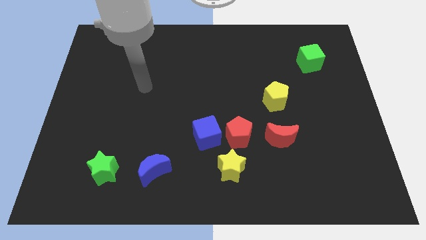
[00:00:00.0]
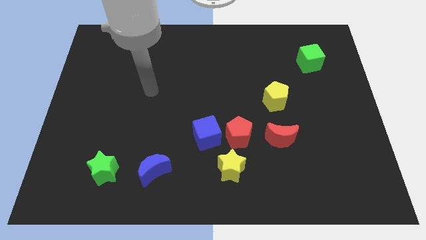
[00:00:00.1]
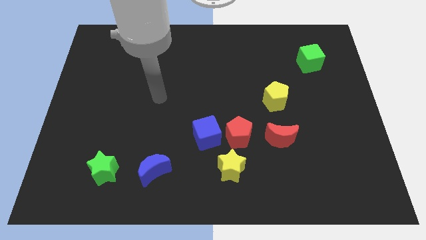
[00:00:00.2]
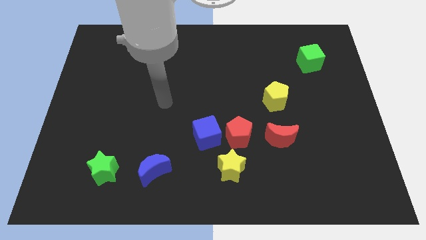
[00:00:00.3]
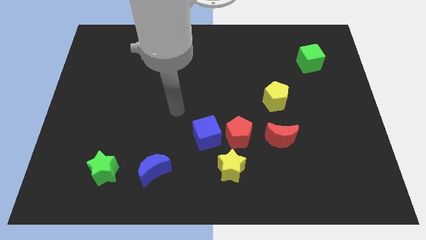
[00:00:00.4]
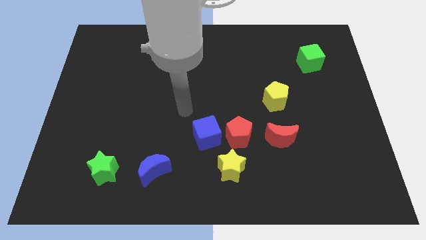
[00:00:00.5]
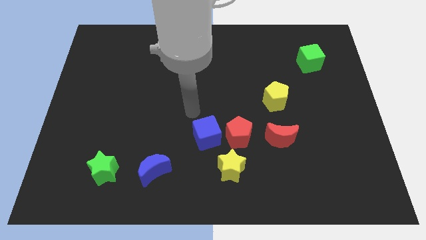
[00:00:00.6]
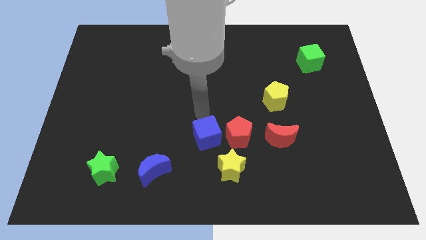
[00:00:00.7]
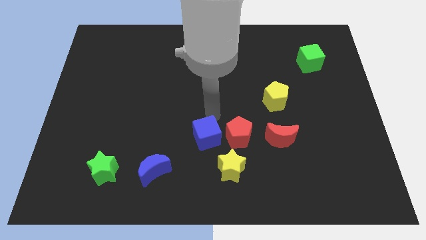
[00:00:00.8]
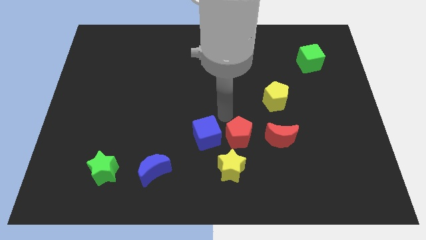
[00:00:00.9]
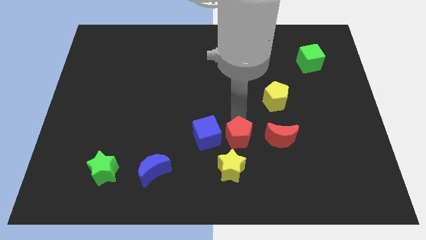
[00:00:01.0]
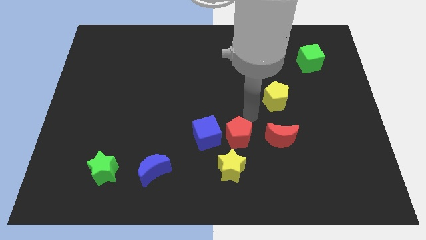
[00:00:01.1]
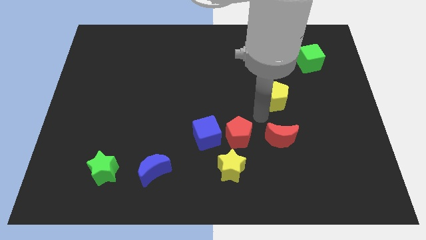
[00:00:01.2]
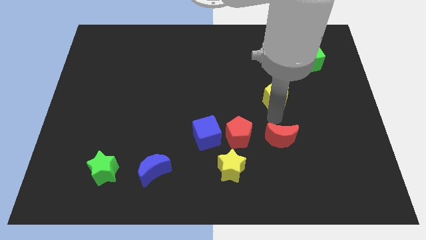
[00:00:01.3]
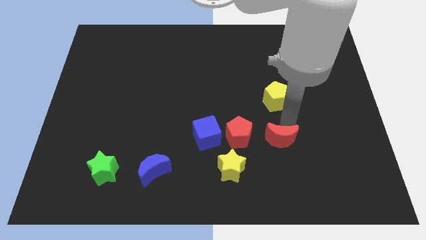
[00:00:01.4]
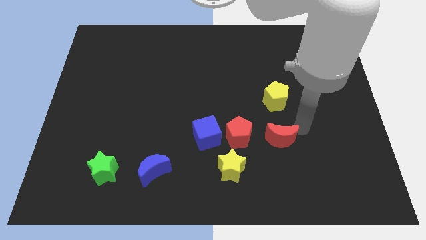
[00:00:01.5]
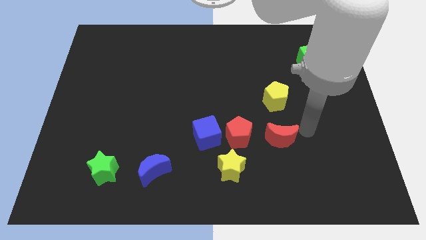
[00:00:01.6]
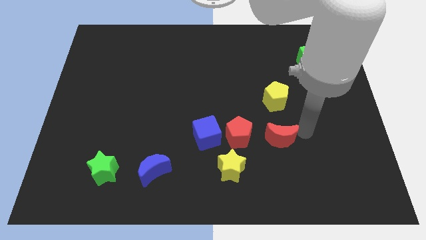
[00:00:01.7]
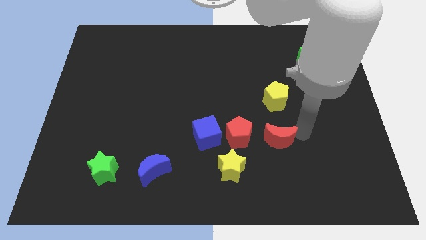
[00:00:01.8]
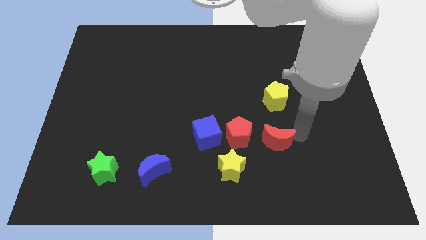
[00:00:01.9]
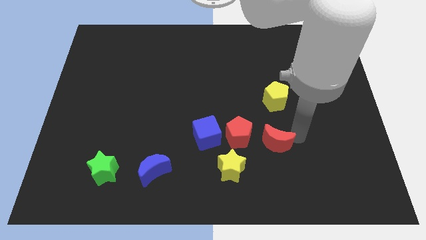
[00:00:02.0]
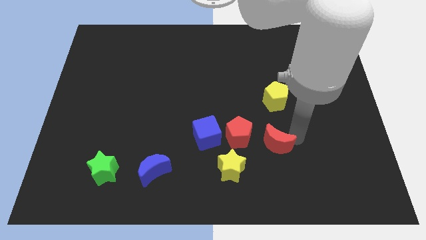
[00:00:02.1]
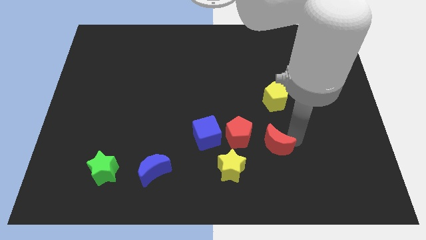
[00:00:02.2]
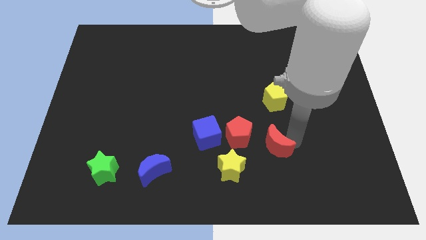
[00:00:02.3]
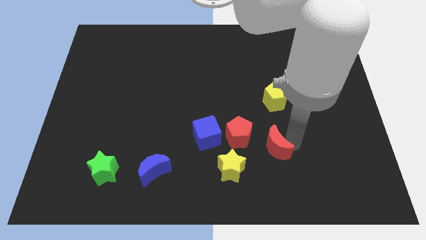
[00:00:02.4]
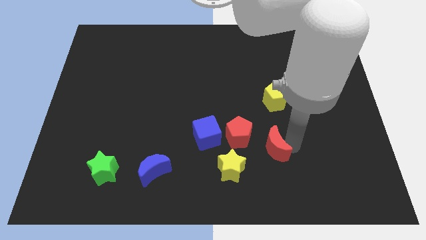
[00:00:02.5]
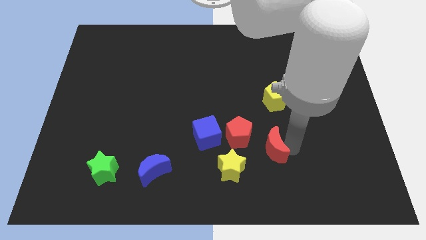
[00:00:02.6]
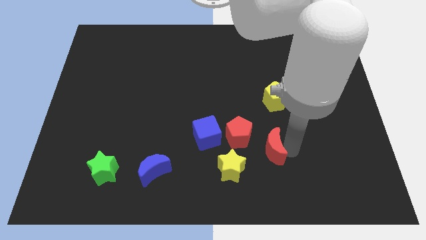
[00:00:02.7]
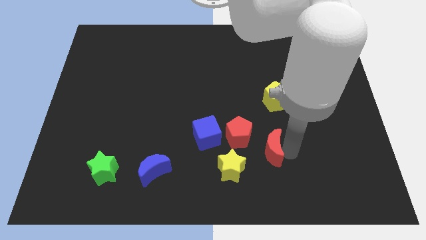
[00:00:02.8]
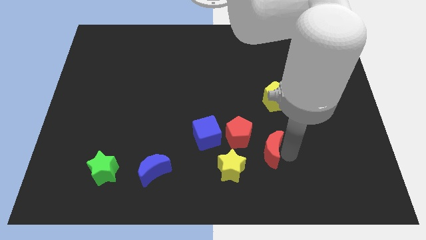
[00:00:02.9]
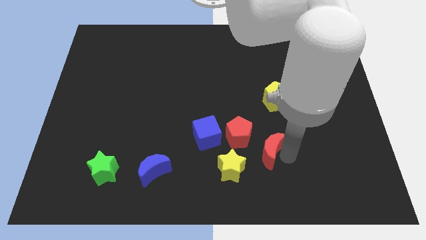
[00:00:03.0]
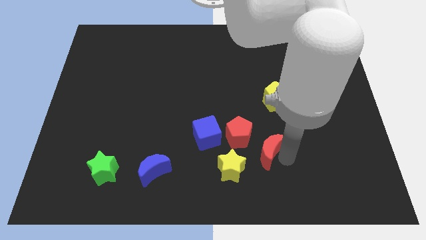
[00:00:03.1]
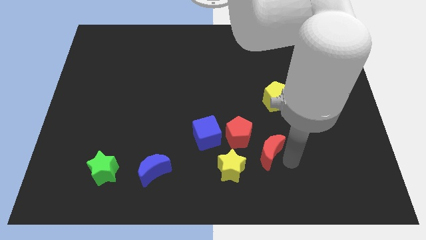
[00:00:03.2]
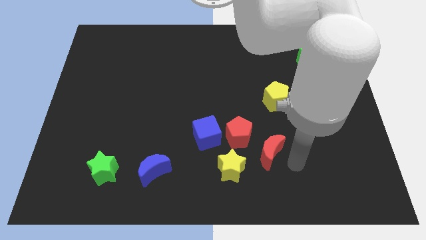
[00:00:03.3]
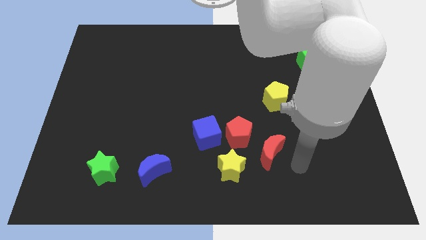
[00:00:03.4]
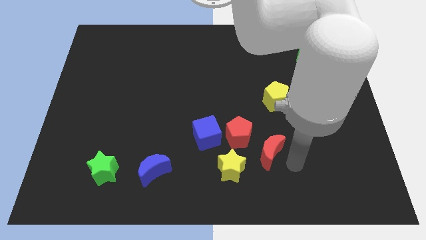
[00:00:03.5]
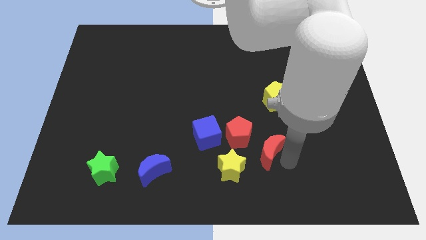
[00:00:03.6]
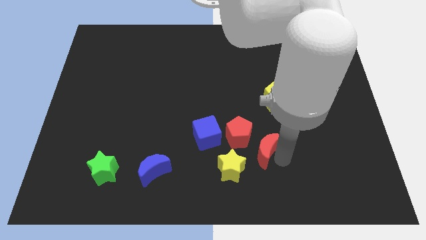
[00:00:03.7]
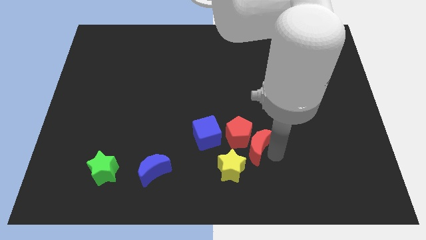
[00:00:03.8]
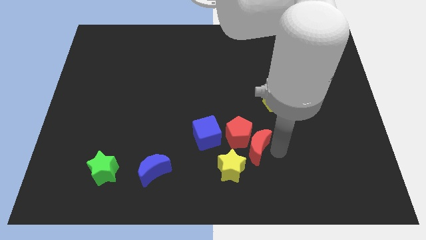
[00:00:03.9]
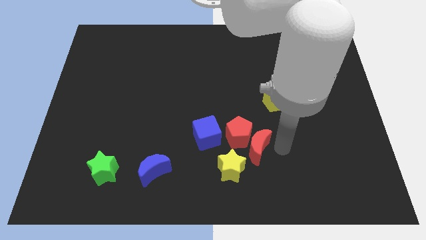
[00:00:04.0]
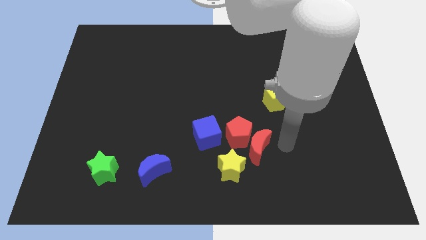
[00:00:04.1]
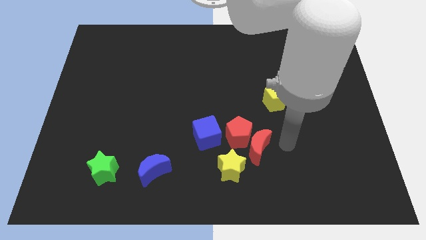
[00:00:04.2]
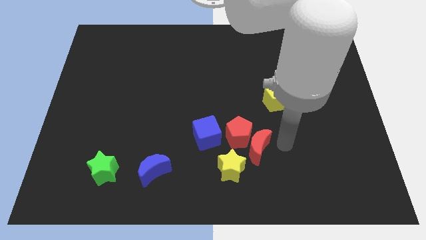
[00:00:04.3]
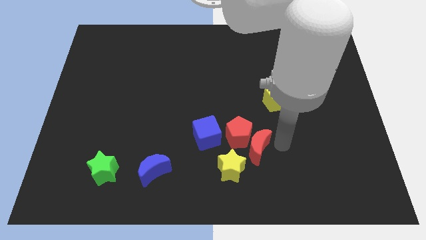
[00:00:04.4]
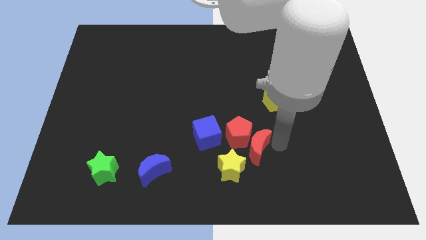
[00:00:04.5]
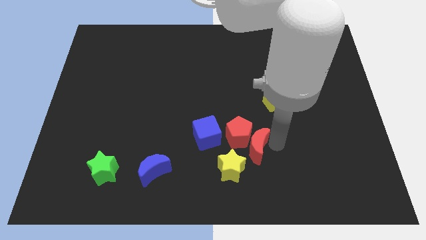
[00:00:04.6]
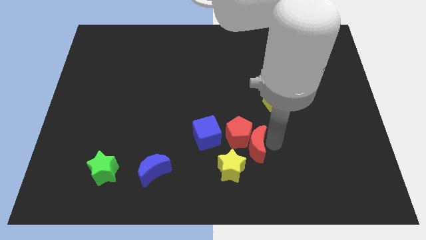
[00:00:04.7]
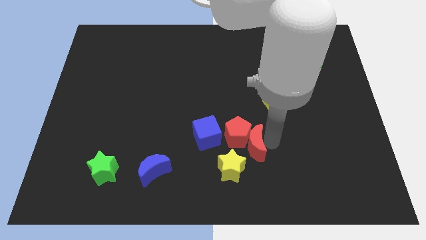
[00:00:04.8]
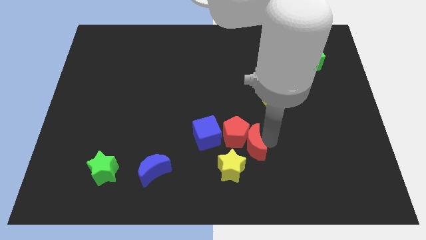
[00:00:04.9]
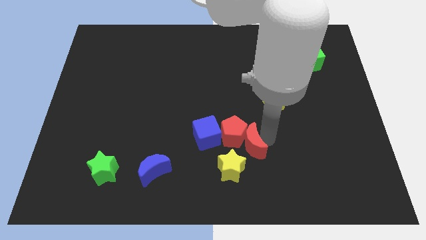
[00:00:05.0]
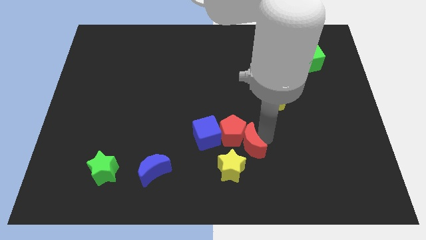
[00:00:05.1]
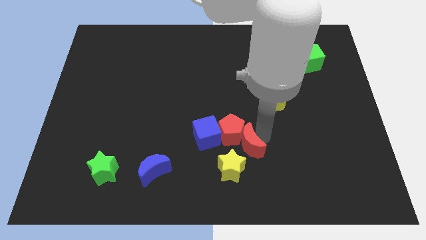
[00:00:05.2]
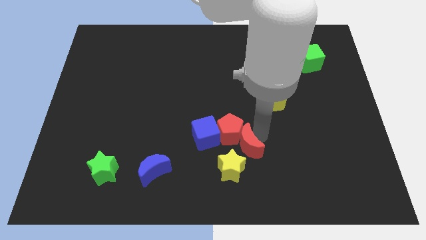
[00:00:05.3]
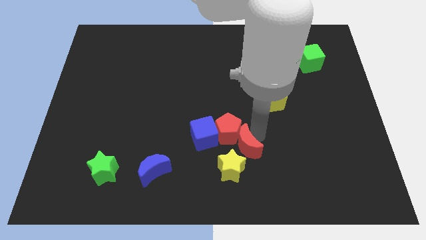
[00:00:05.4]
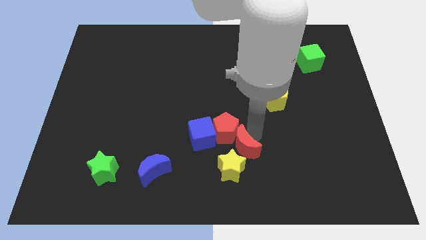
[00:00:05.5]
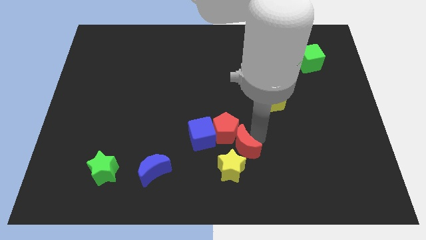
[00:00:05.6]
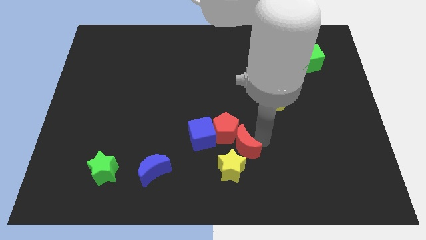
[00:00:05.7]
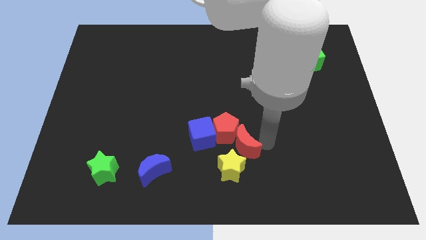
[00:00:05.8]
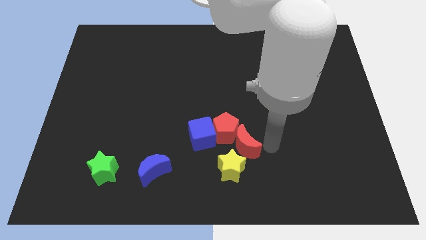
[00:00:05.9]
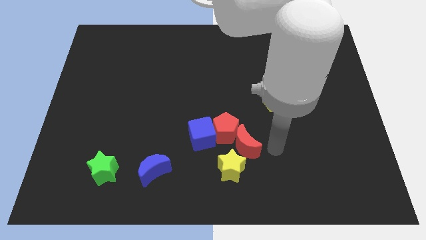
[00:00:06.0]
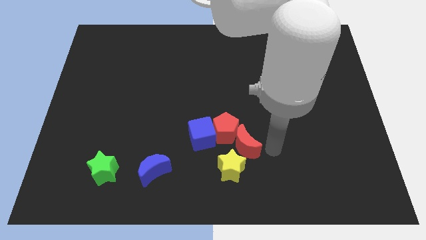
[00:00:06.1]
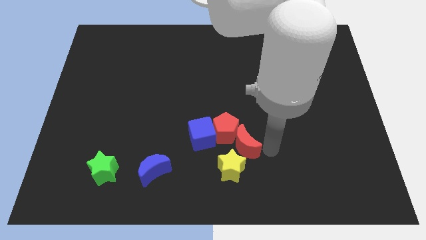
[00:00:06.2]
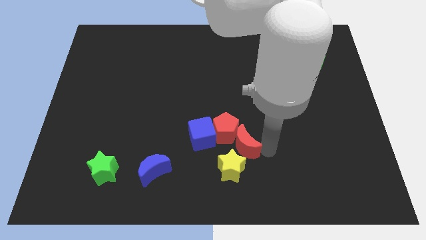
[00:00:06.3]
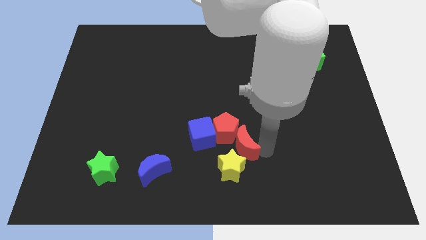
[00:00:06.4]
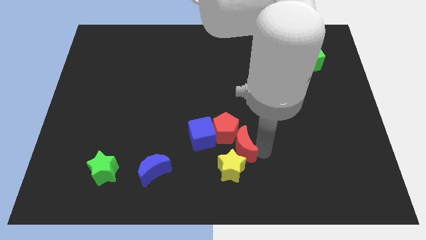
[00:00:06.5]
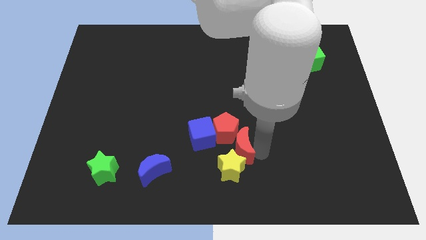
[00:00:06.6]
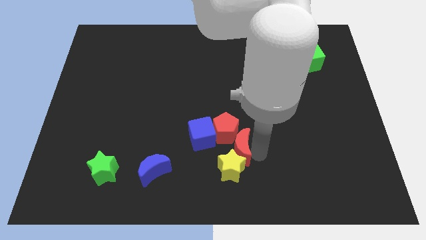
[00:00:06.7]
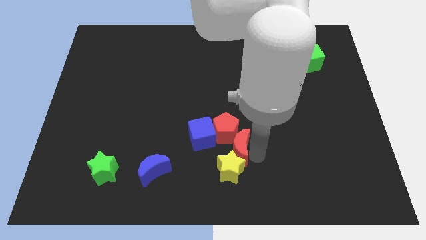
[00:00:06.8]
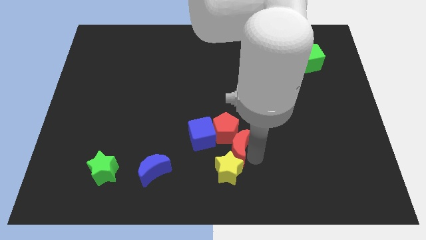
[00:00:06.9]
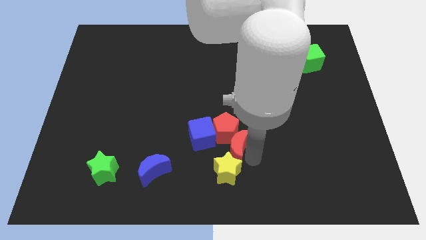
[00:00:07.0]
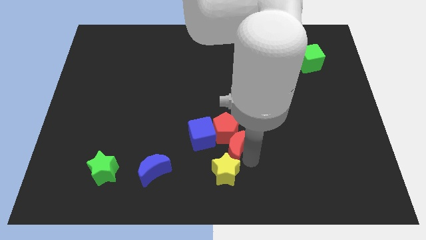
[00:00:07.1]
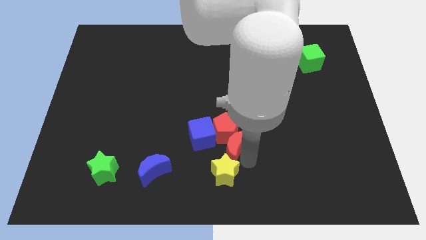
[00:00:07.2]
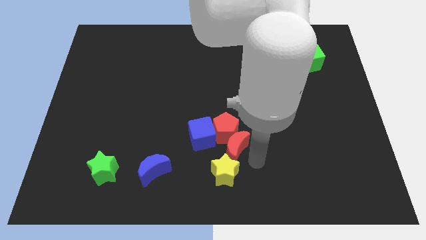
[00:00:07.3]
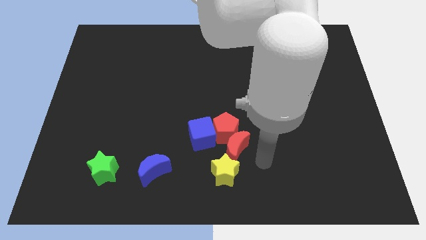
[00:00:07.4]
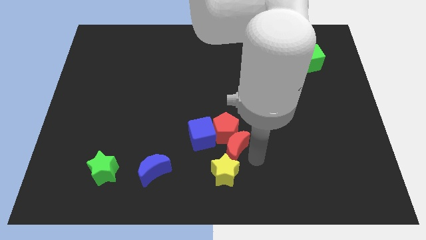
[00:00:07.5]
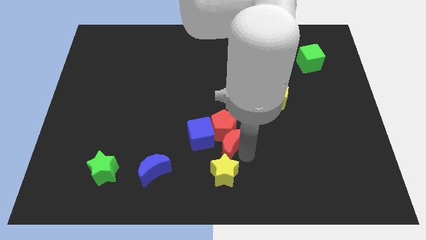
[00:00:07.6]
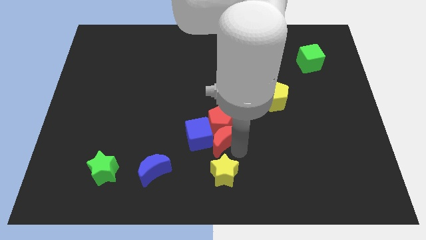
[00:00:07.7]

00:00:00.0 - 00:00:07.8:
put the red moon to the blue cube
